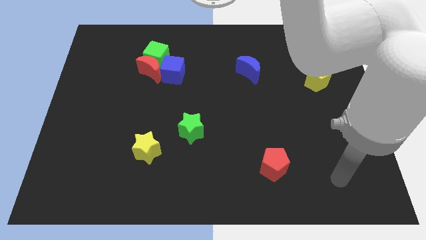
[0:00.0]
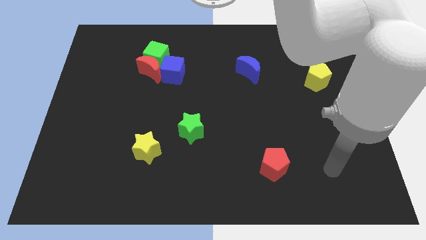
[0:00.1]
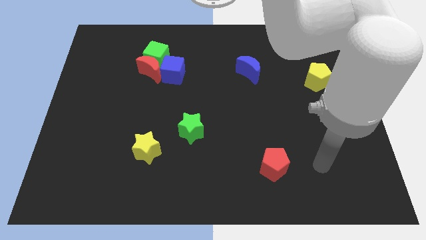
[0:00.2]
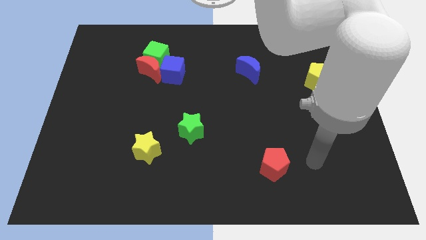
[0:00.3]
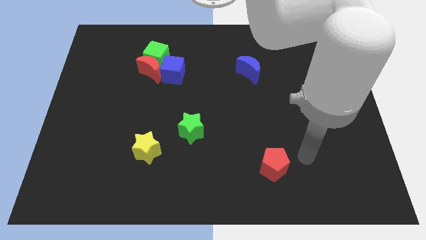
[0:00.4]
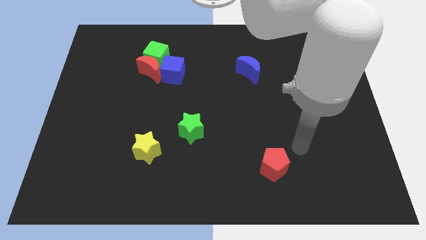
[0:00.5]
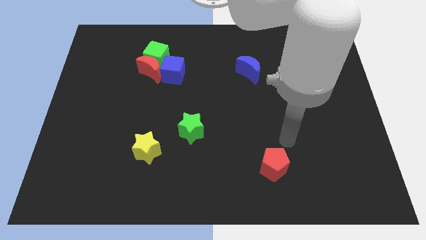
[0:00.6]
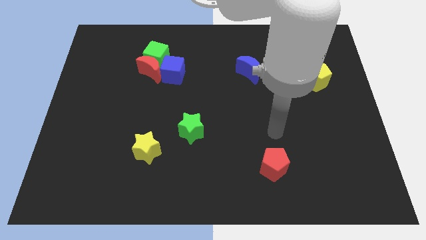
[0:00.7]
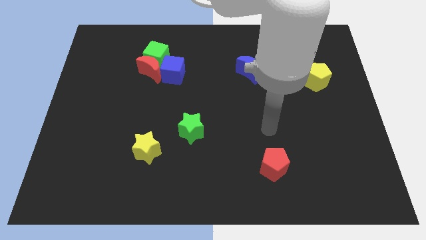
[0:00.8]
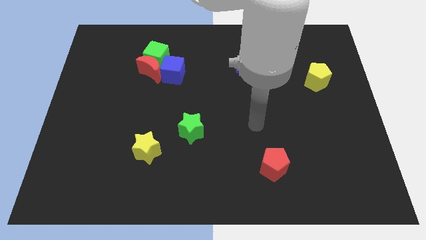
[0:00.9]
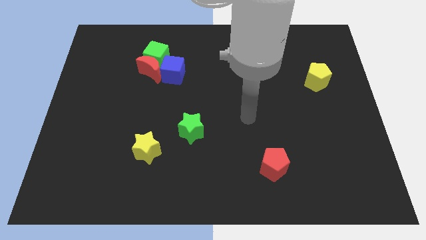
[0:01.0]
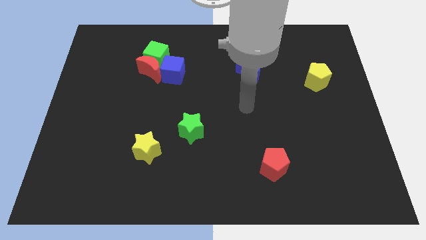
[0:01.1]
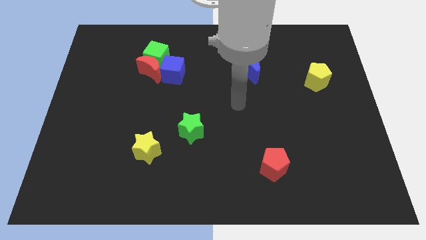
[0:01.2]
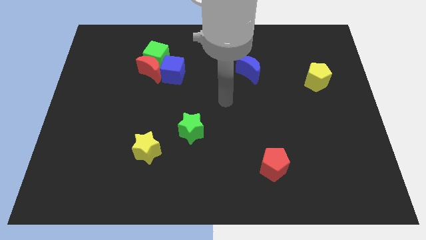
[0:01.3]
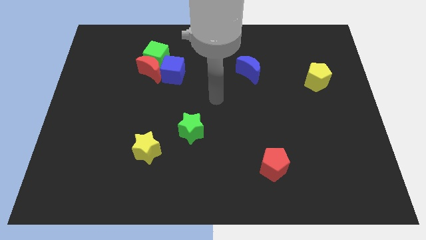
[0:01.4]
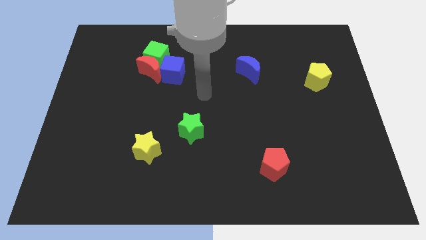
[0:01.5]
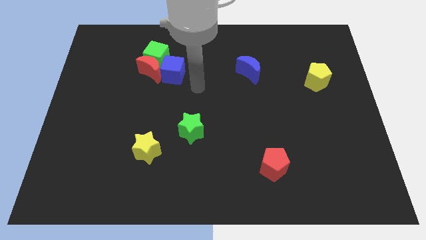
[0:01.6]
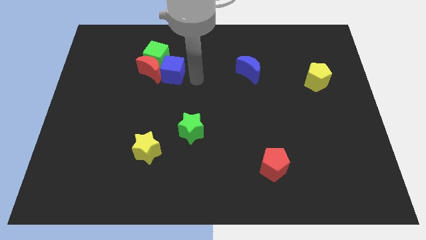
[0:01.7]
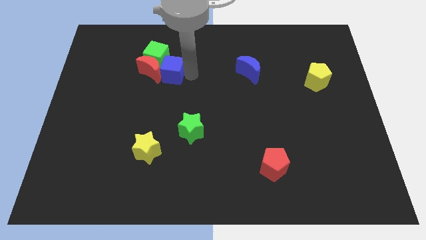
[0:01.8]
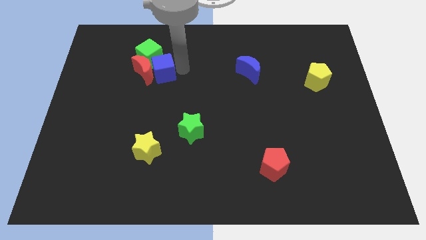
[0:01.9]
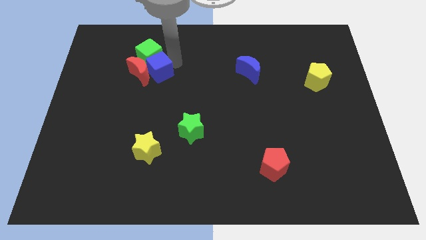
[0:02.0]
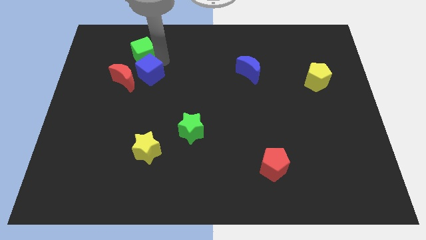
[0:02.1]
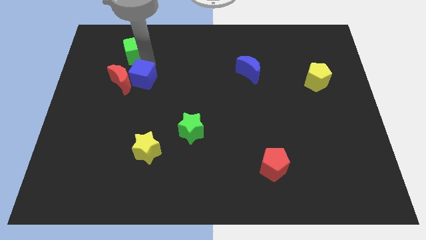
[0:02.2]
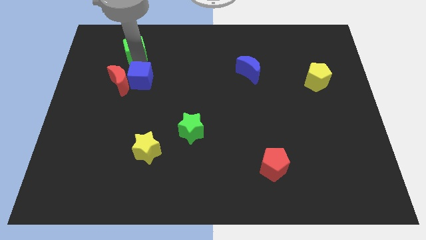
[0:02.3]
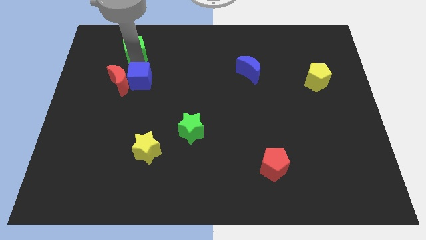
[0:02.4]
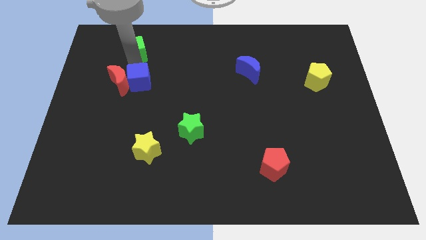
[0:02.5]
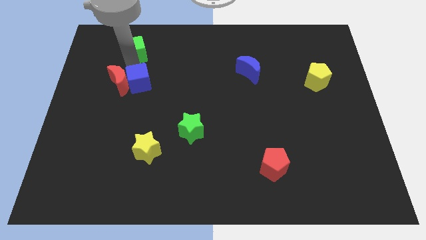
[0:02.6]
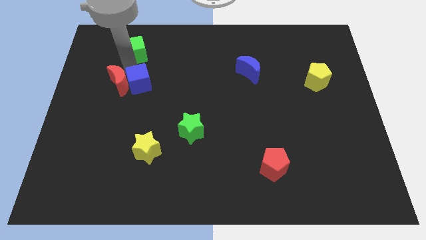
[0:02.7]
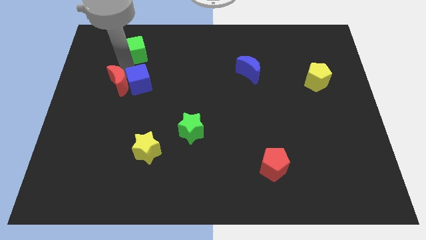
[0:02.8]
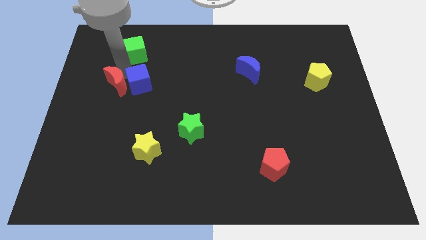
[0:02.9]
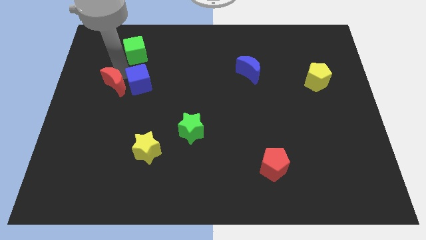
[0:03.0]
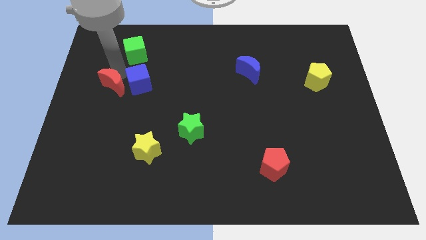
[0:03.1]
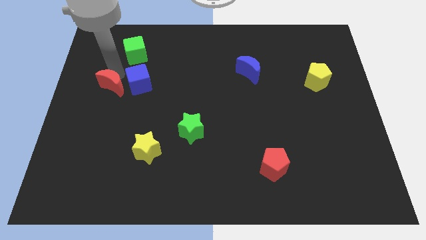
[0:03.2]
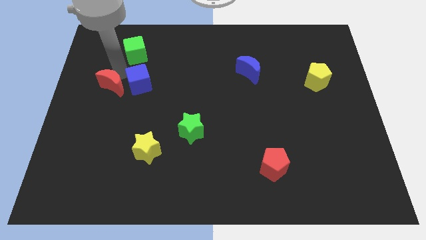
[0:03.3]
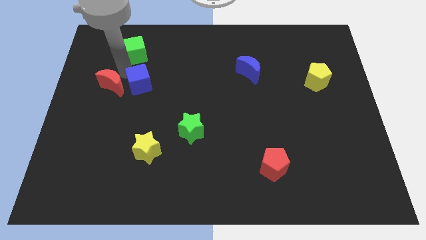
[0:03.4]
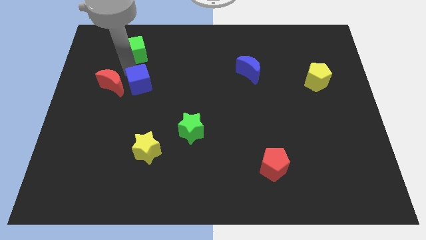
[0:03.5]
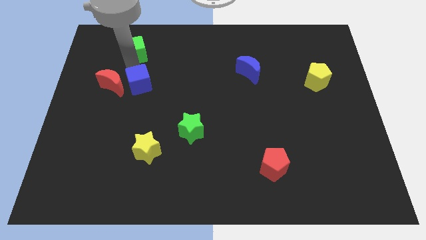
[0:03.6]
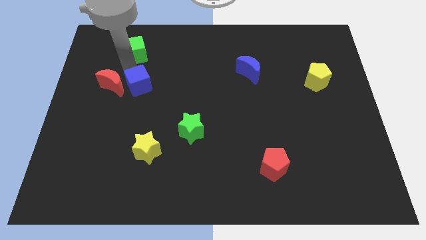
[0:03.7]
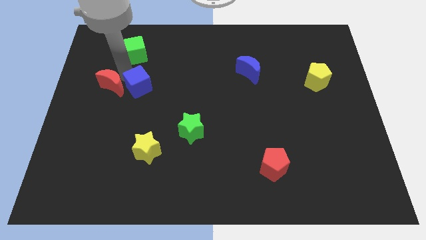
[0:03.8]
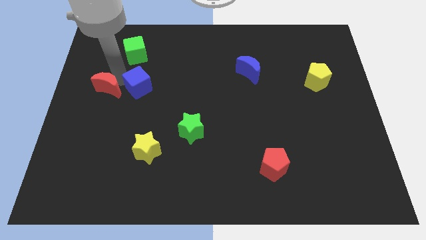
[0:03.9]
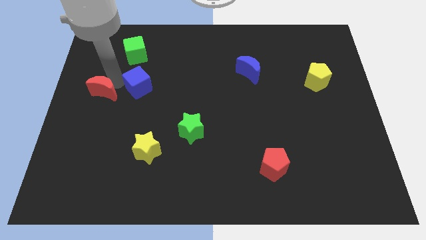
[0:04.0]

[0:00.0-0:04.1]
pull the red moon apart from the green cube and blue cube

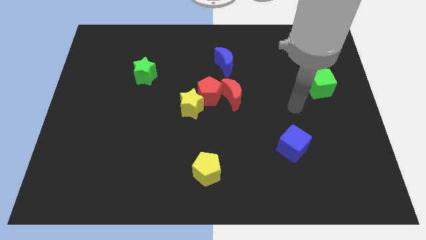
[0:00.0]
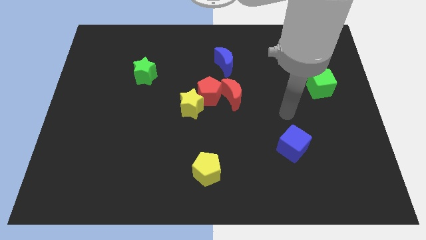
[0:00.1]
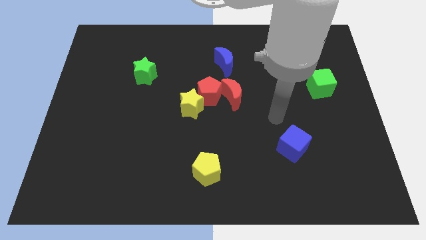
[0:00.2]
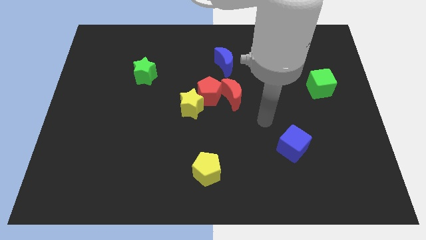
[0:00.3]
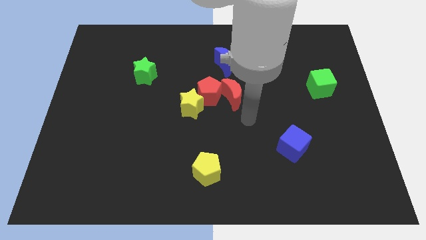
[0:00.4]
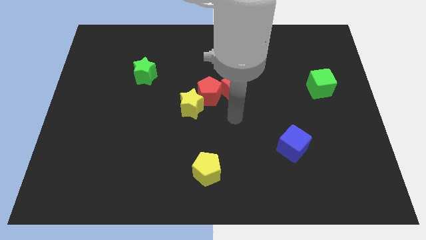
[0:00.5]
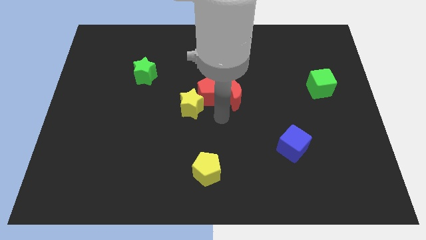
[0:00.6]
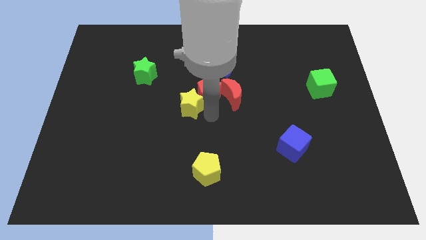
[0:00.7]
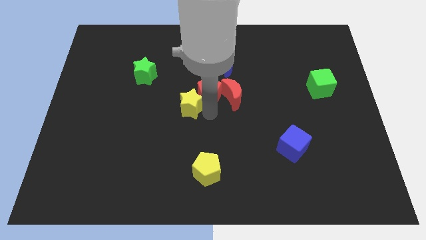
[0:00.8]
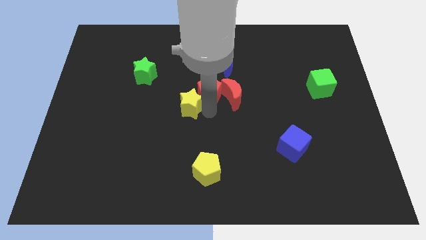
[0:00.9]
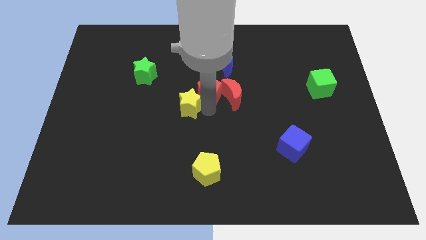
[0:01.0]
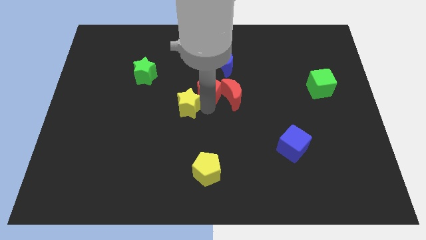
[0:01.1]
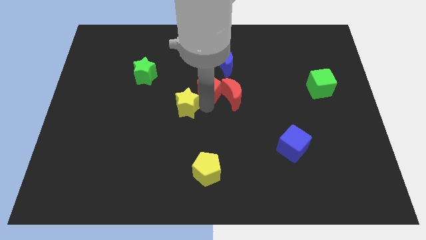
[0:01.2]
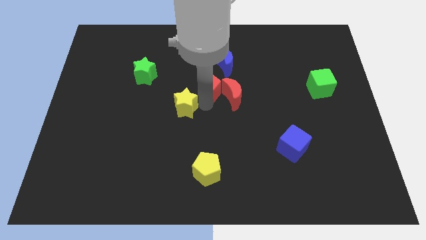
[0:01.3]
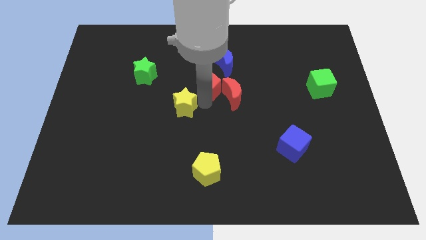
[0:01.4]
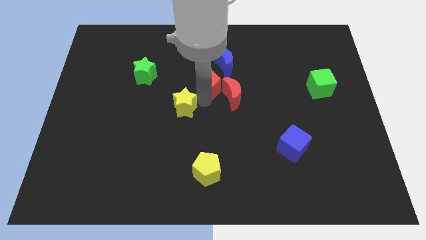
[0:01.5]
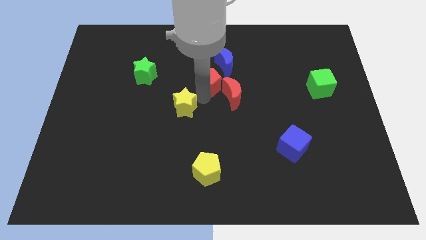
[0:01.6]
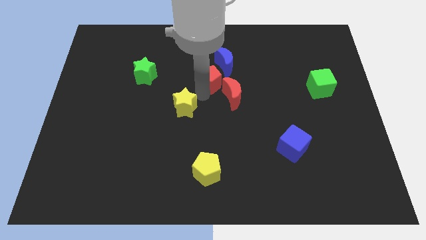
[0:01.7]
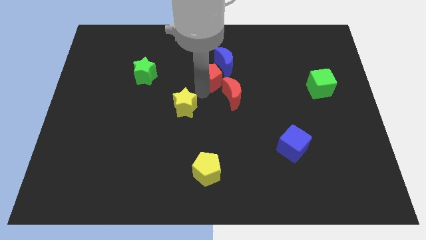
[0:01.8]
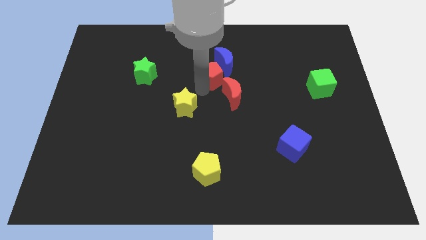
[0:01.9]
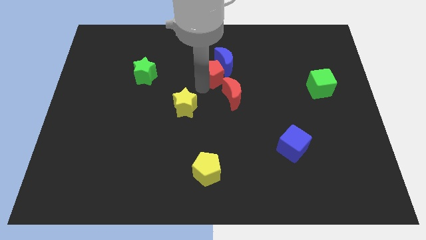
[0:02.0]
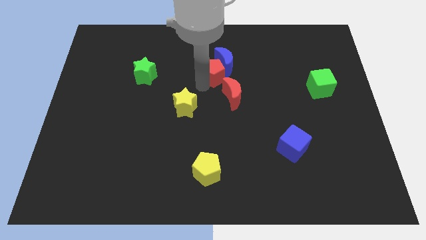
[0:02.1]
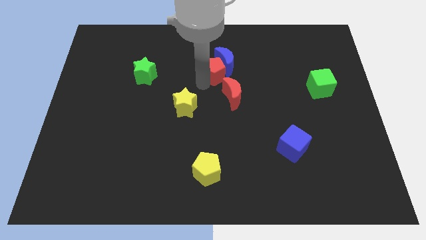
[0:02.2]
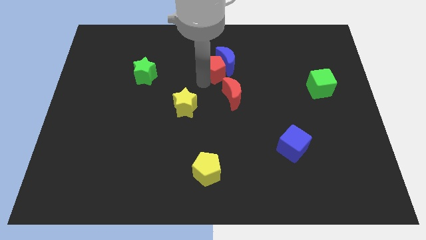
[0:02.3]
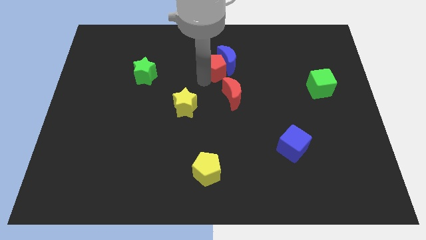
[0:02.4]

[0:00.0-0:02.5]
pull the red pentagon apart from the yellow star and red moon

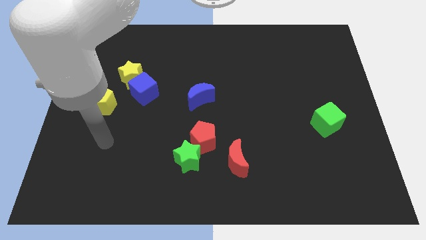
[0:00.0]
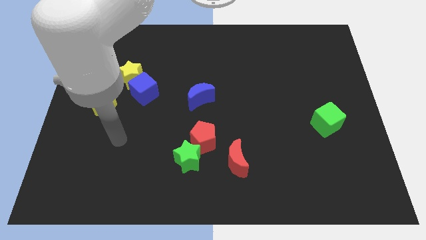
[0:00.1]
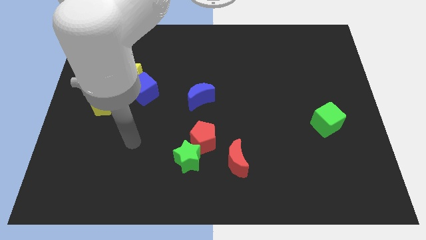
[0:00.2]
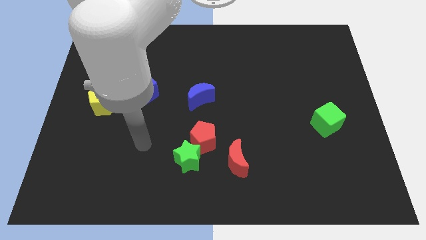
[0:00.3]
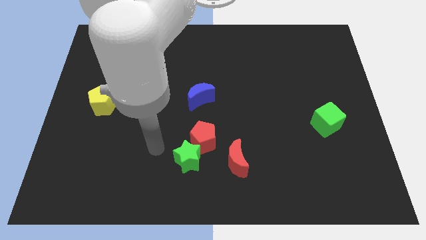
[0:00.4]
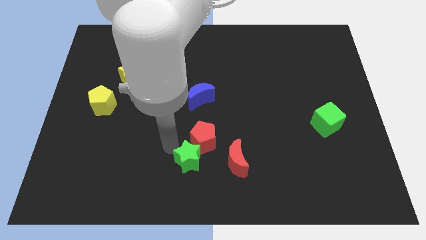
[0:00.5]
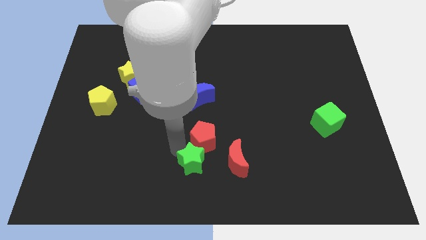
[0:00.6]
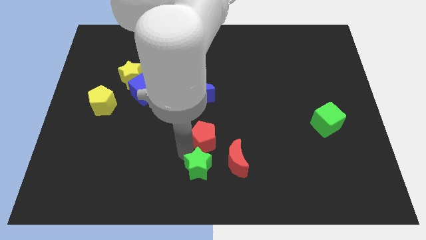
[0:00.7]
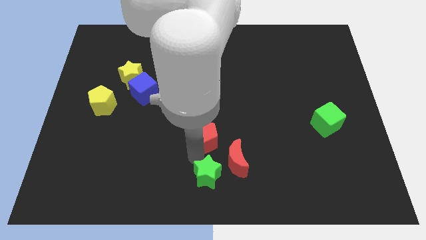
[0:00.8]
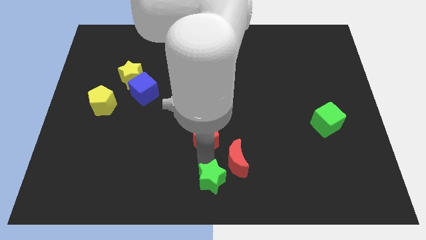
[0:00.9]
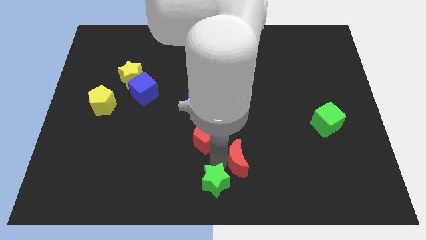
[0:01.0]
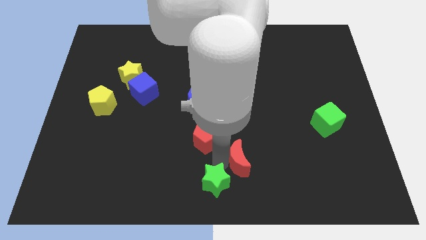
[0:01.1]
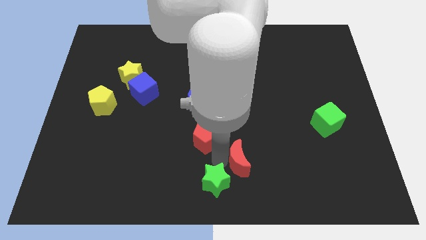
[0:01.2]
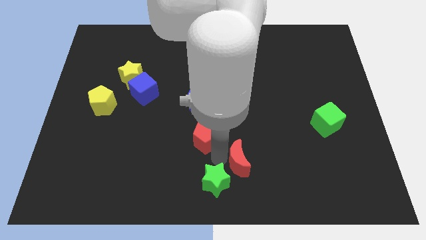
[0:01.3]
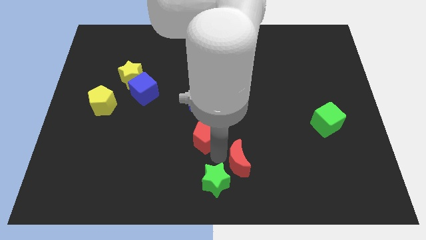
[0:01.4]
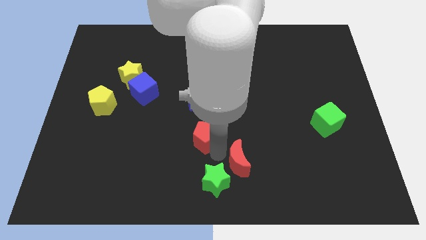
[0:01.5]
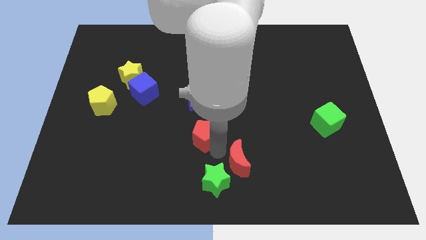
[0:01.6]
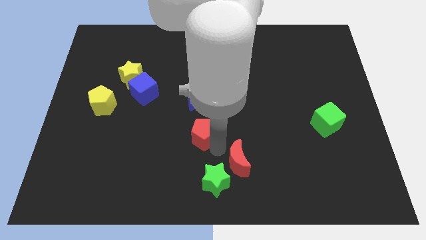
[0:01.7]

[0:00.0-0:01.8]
separate the red pentagon from the green star and red moon

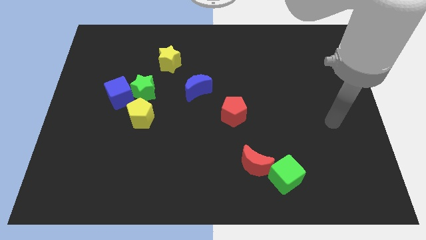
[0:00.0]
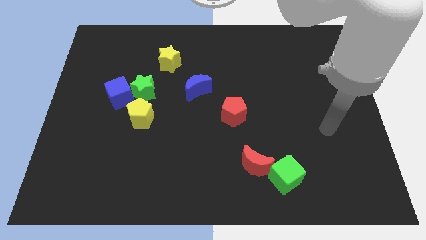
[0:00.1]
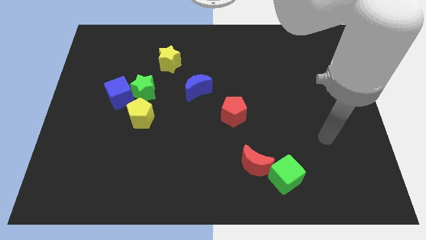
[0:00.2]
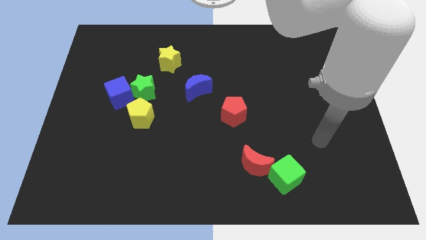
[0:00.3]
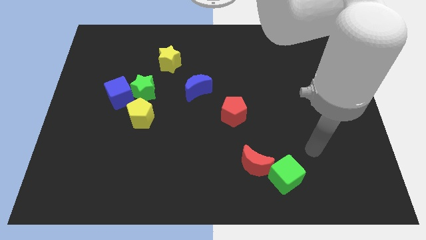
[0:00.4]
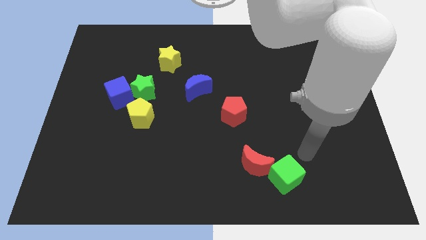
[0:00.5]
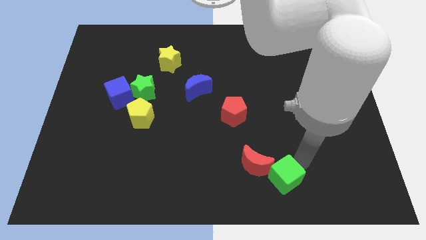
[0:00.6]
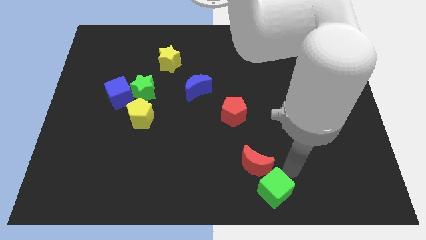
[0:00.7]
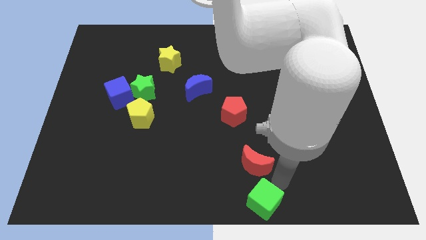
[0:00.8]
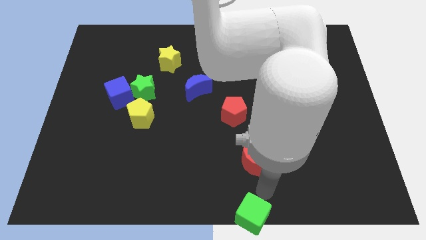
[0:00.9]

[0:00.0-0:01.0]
separate the red moon from the green cube

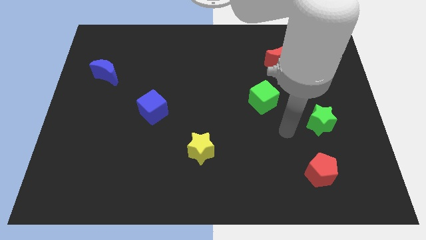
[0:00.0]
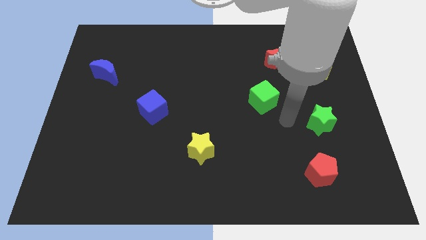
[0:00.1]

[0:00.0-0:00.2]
separate the red moon from the yellow pentagon
